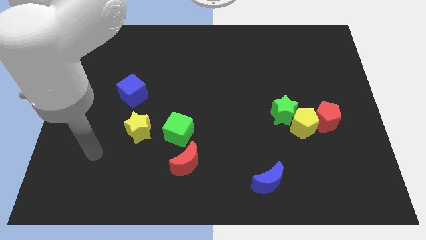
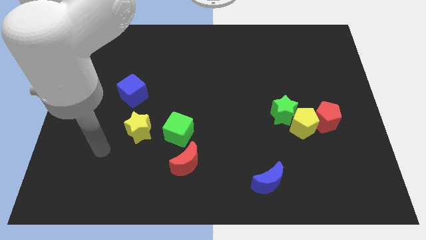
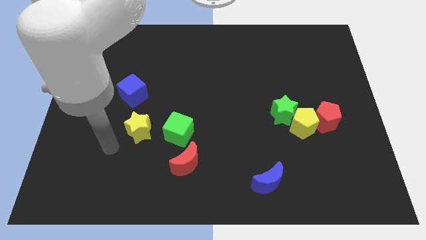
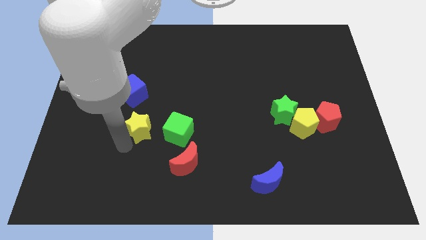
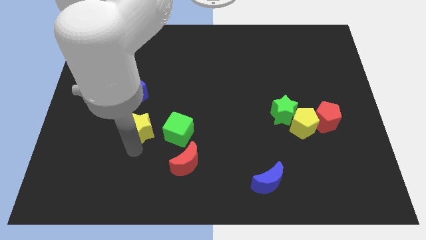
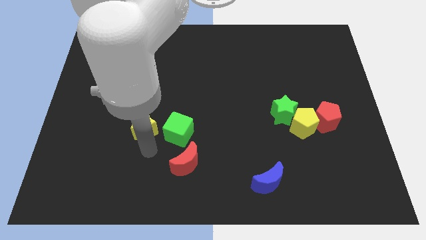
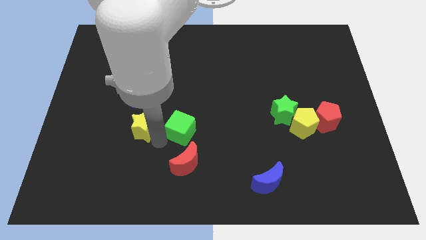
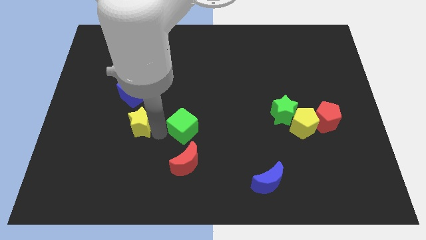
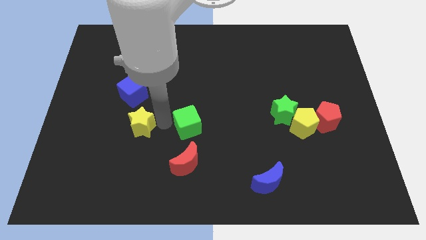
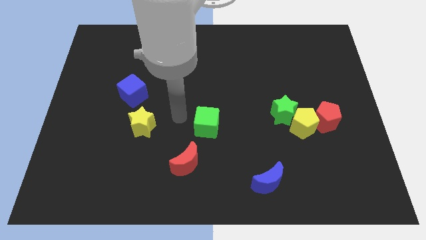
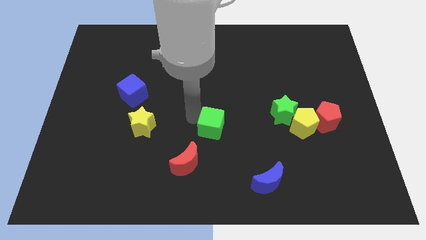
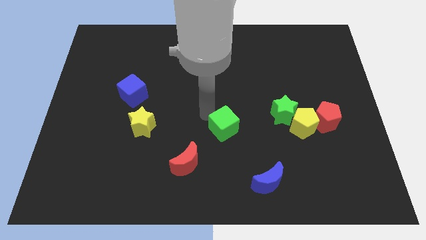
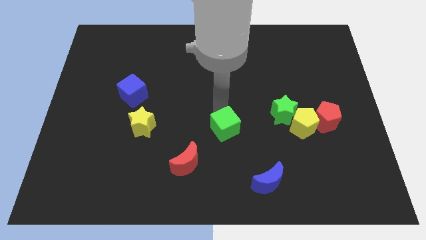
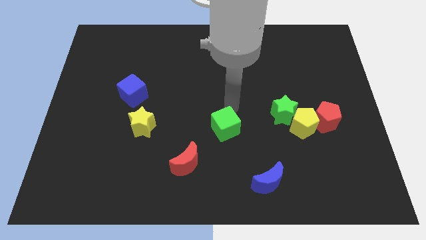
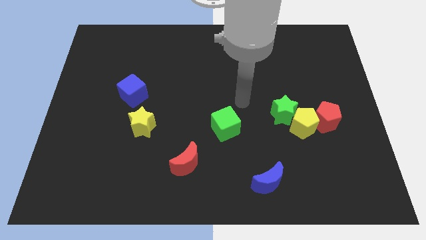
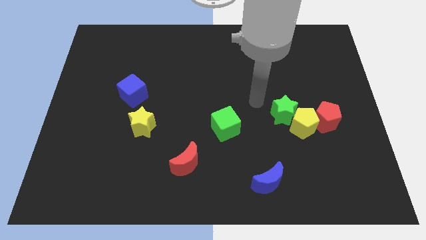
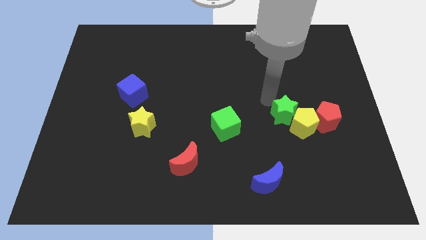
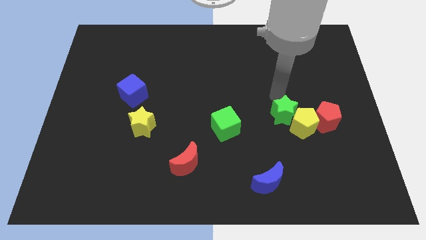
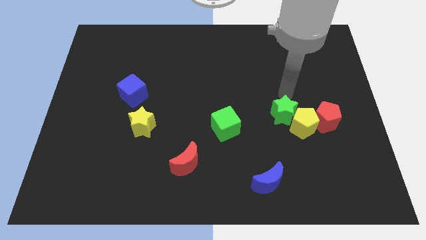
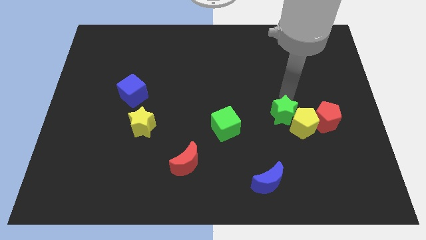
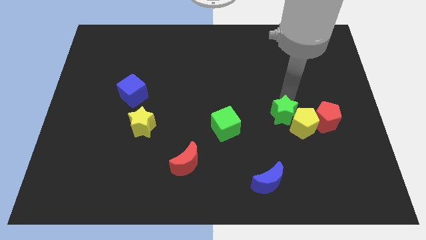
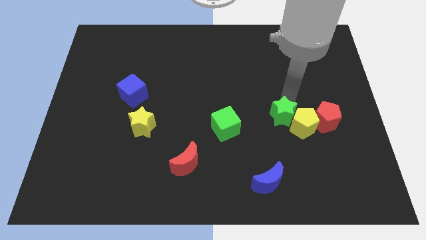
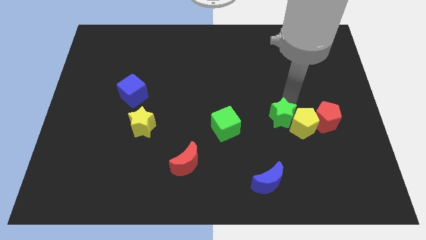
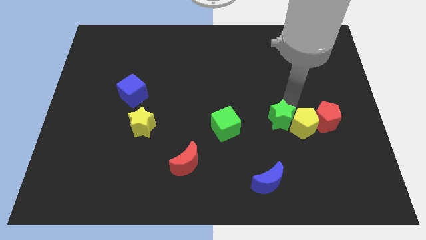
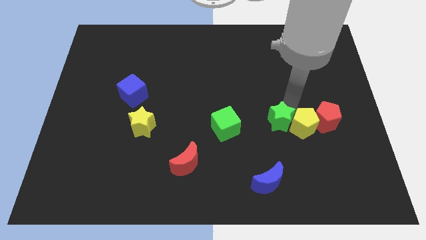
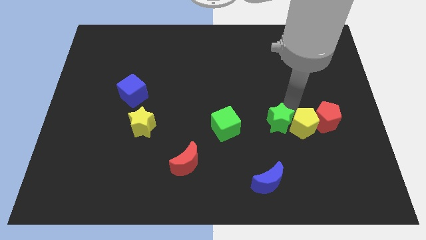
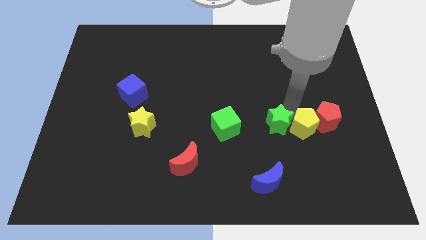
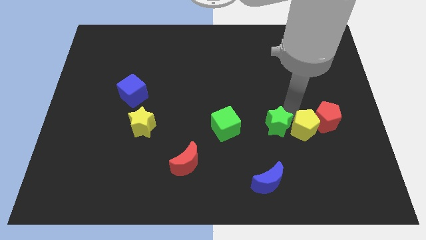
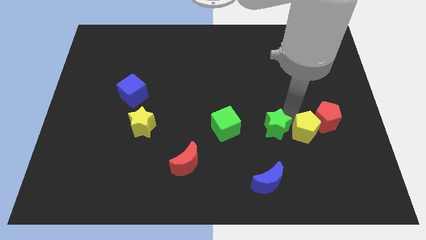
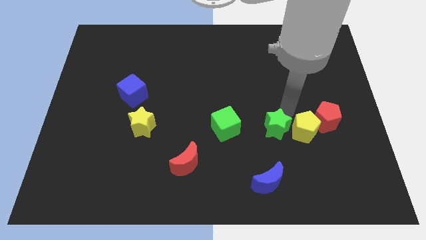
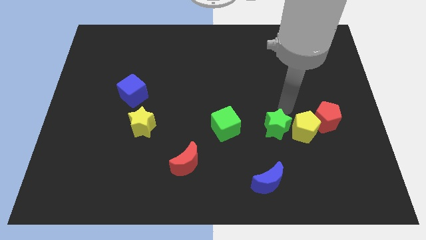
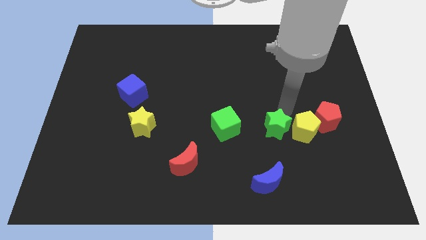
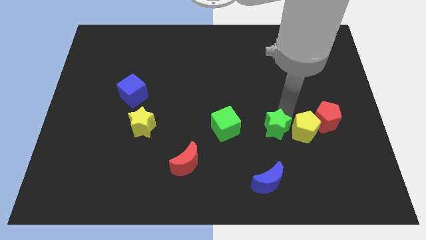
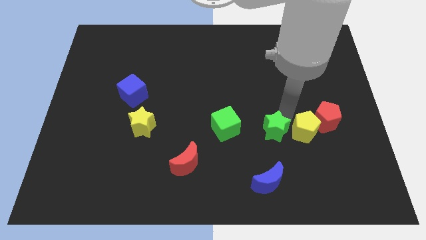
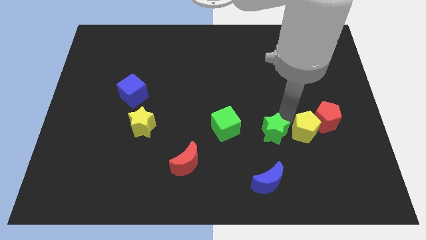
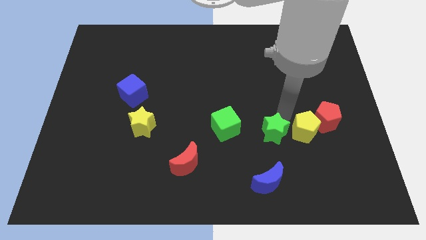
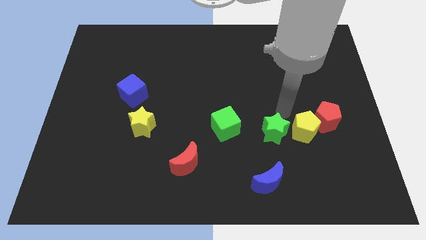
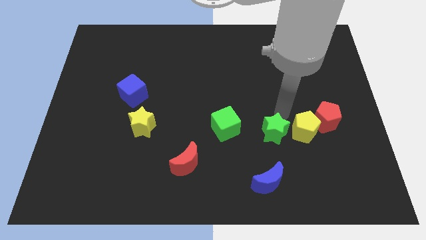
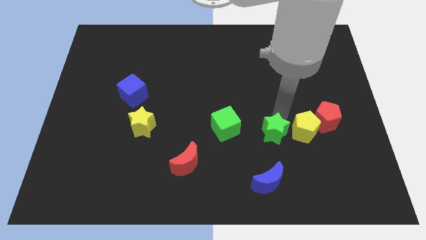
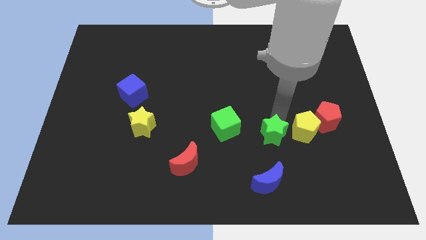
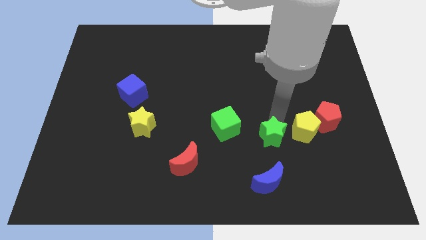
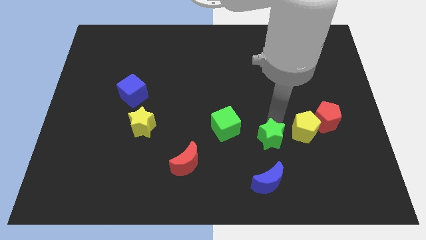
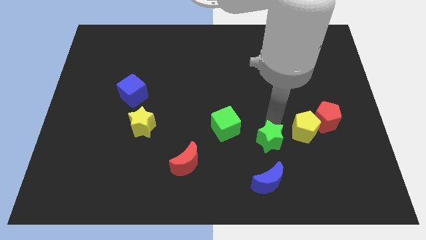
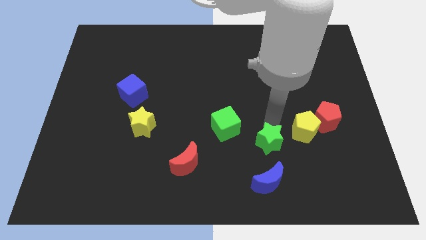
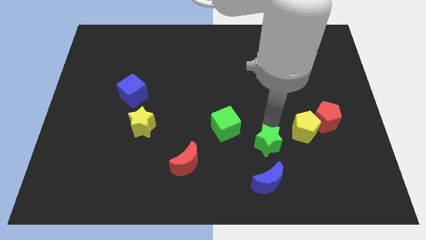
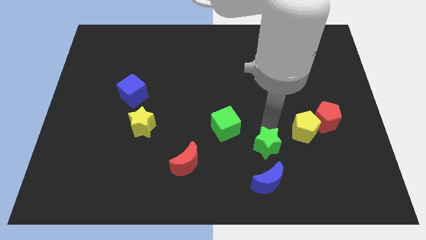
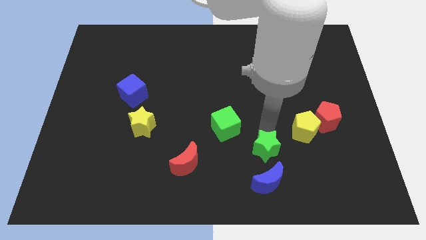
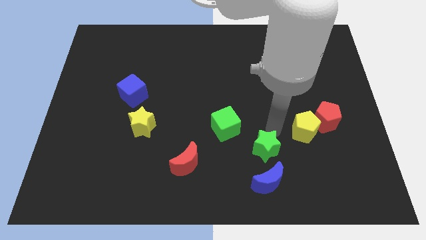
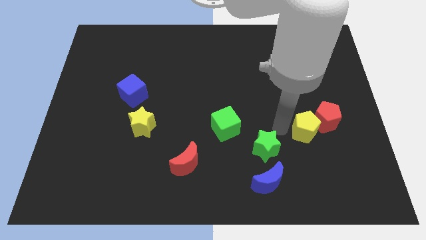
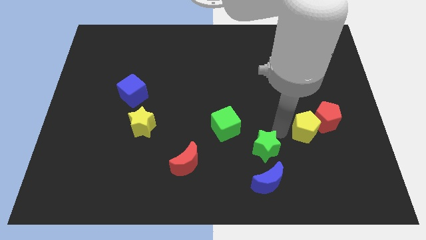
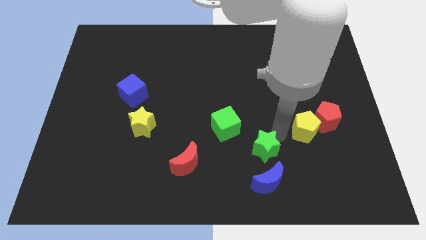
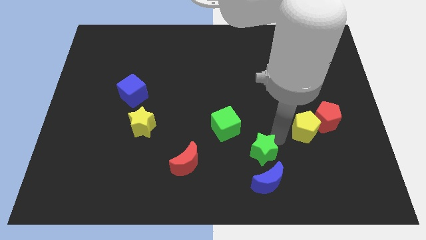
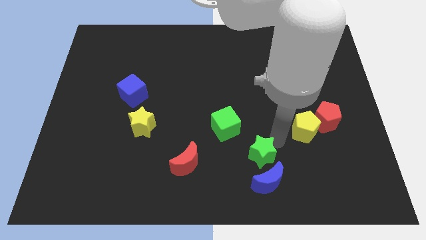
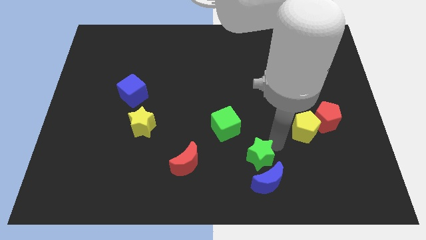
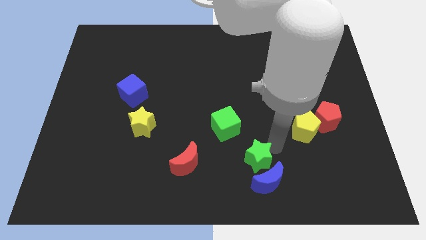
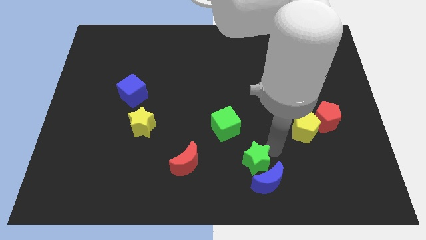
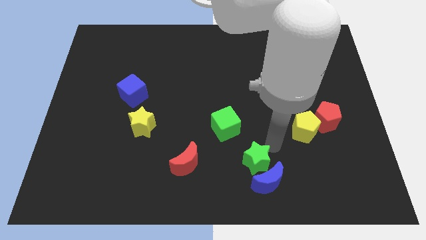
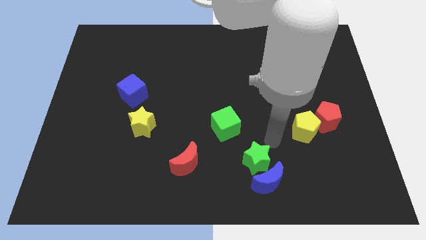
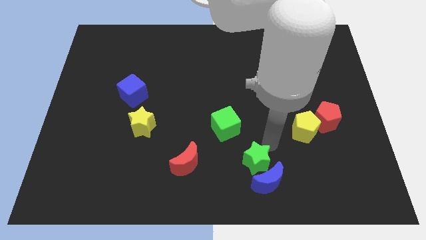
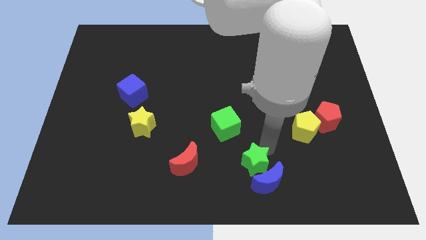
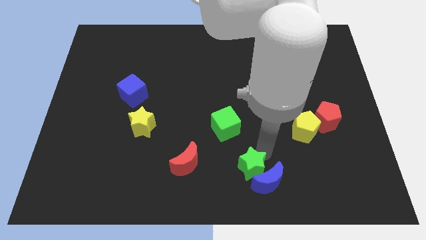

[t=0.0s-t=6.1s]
slide the green star to the bottom
